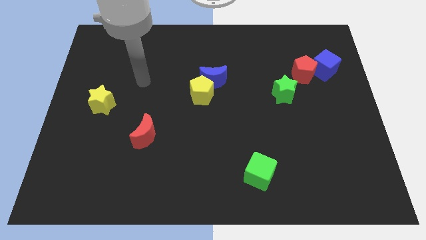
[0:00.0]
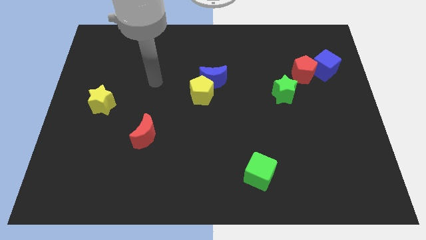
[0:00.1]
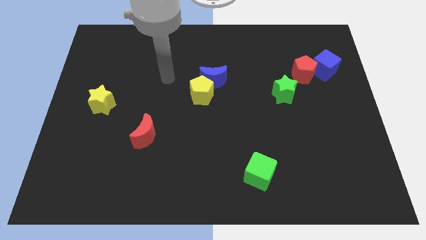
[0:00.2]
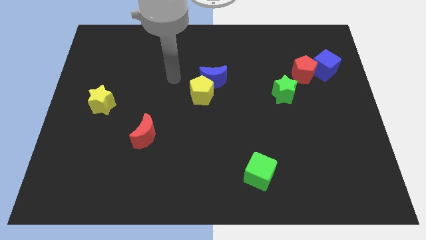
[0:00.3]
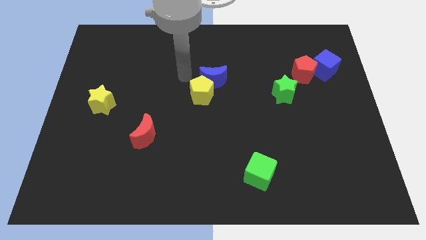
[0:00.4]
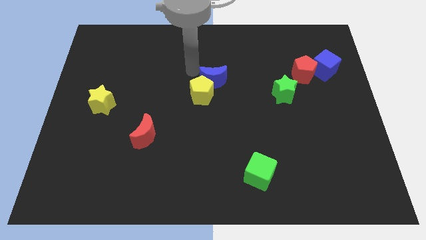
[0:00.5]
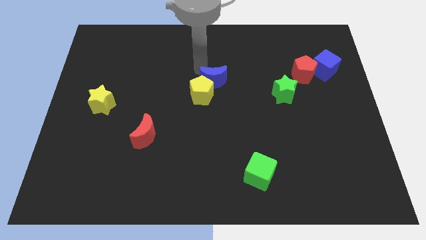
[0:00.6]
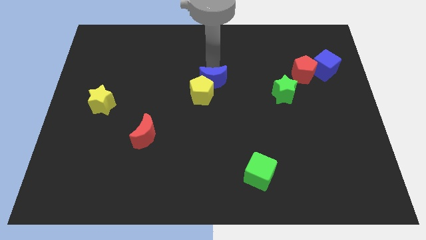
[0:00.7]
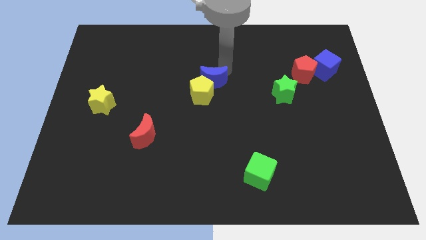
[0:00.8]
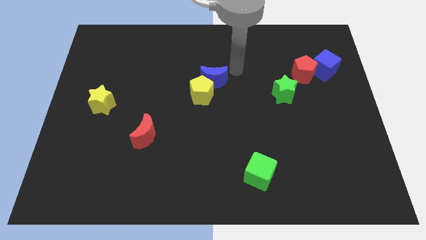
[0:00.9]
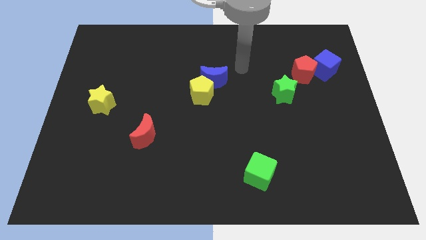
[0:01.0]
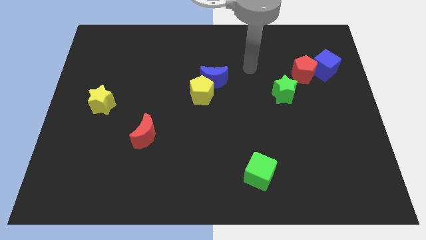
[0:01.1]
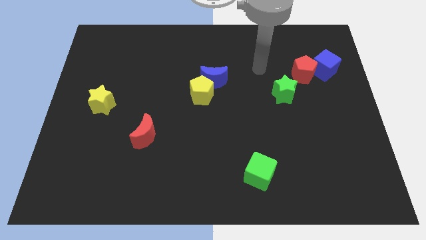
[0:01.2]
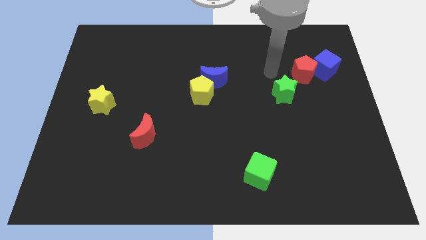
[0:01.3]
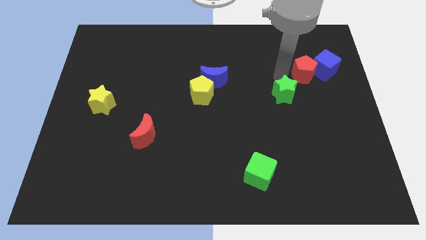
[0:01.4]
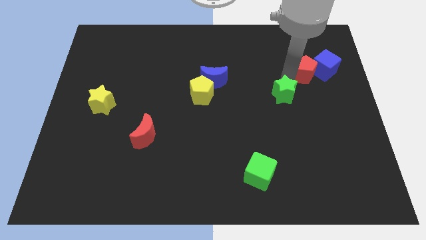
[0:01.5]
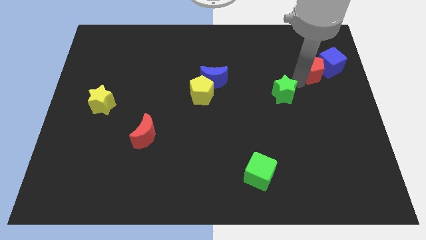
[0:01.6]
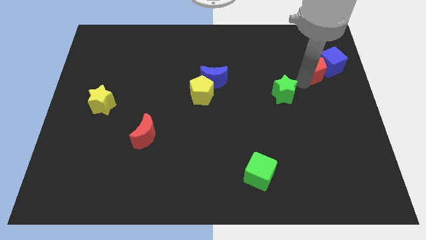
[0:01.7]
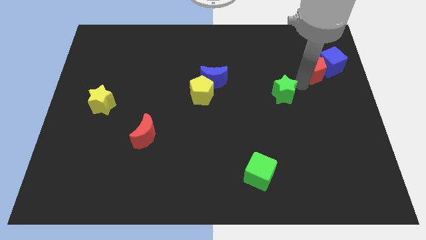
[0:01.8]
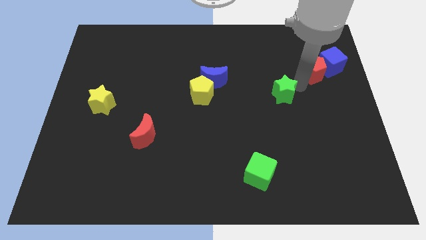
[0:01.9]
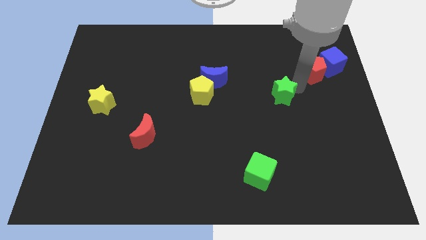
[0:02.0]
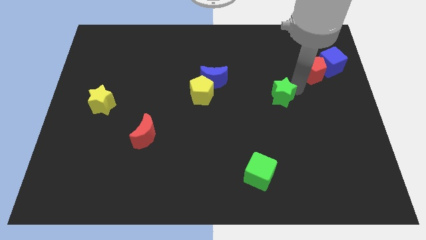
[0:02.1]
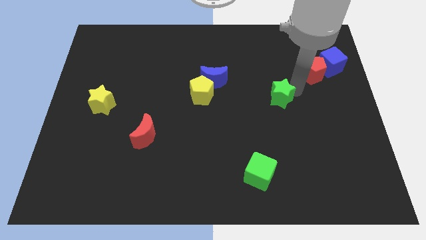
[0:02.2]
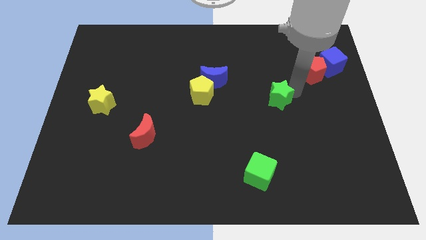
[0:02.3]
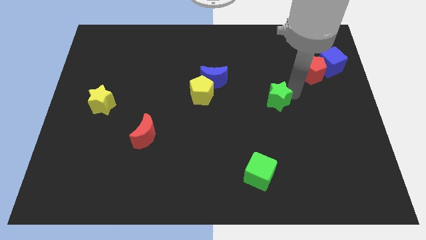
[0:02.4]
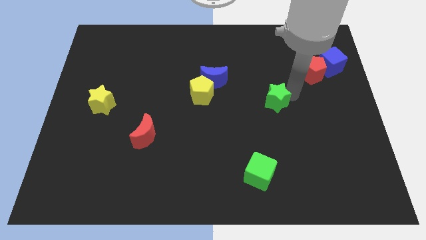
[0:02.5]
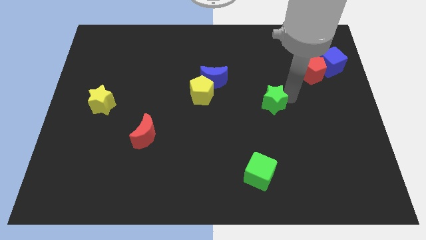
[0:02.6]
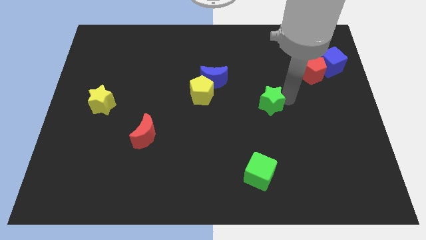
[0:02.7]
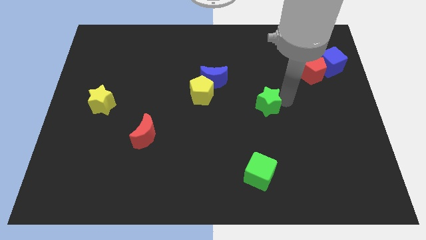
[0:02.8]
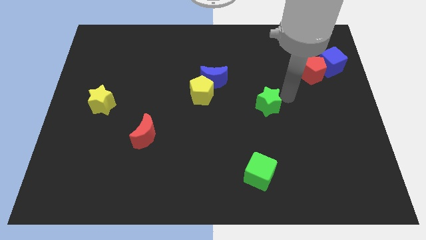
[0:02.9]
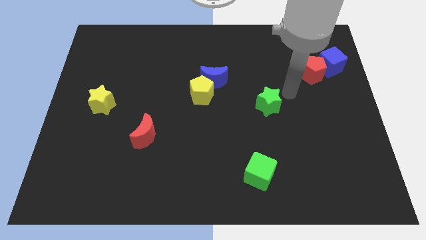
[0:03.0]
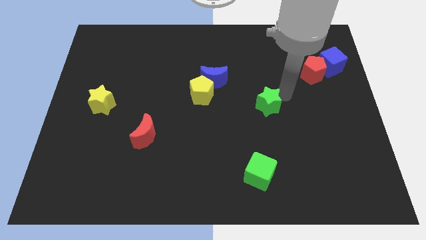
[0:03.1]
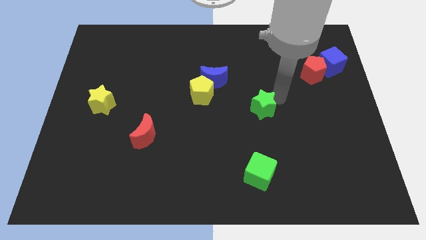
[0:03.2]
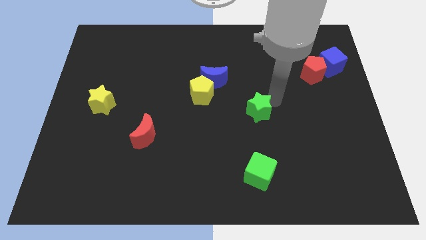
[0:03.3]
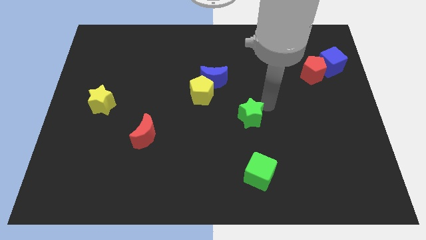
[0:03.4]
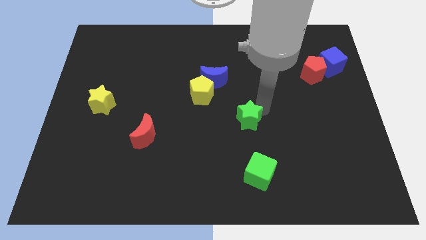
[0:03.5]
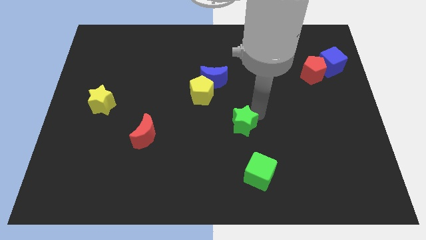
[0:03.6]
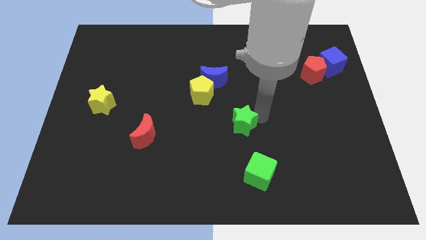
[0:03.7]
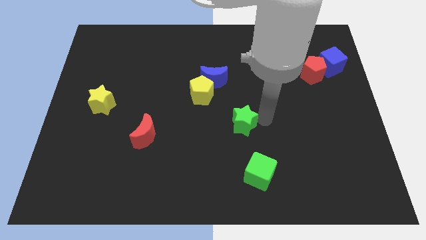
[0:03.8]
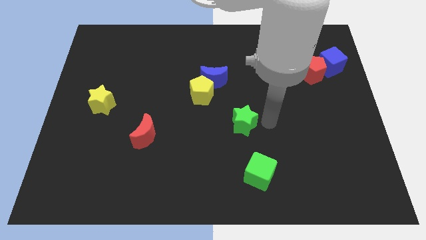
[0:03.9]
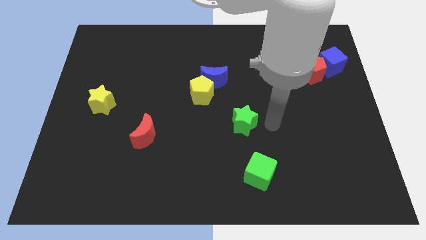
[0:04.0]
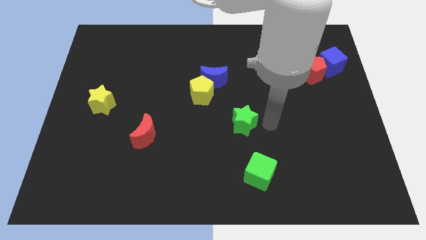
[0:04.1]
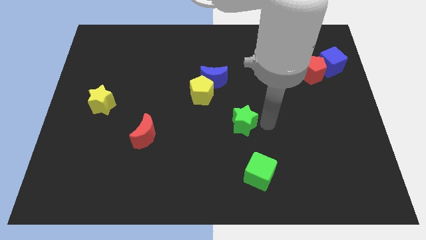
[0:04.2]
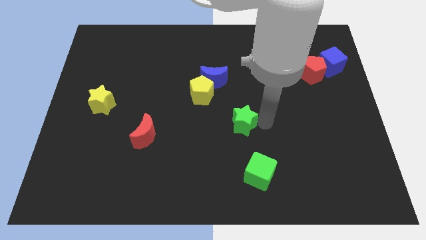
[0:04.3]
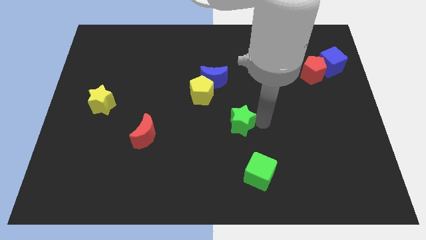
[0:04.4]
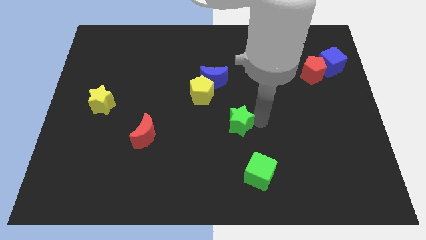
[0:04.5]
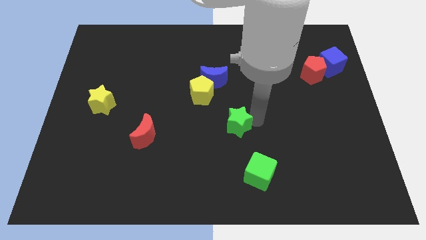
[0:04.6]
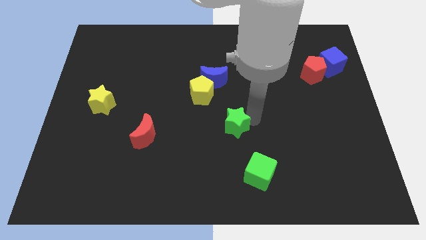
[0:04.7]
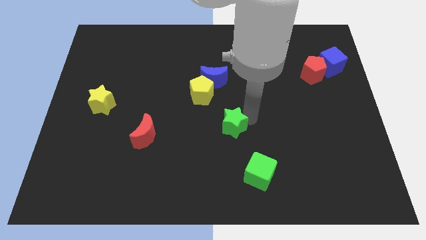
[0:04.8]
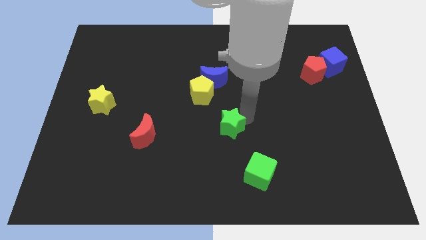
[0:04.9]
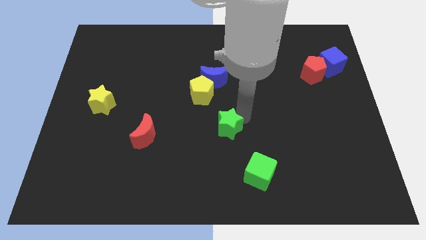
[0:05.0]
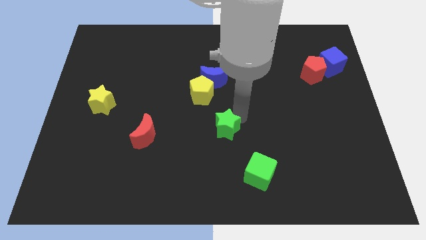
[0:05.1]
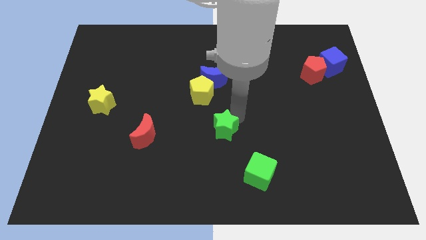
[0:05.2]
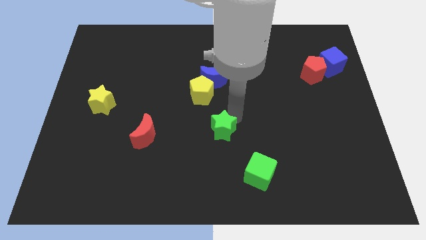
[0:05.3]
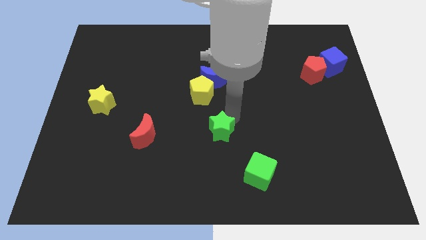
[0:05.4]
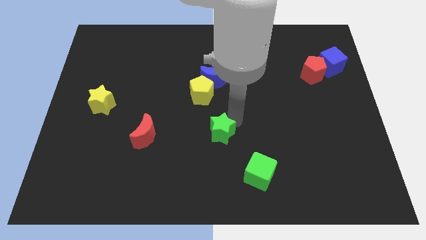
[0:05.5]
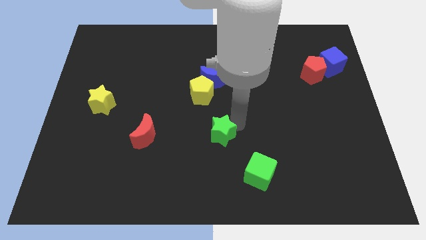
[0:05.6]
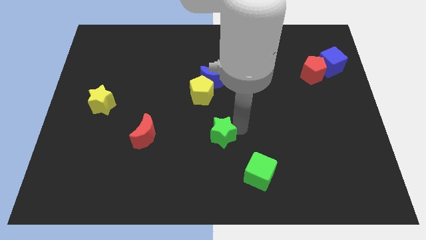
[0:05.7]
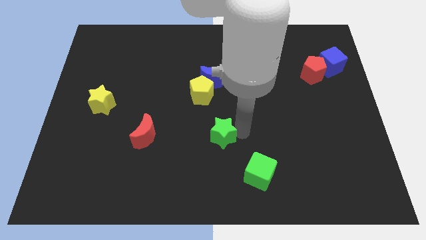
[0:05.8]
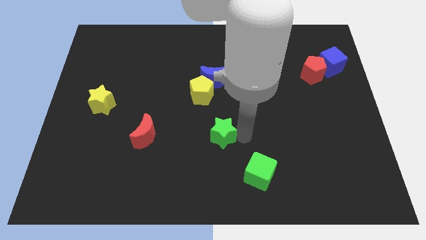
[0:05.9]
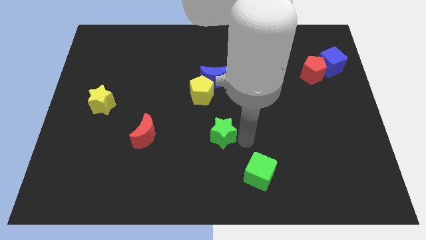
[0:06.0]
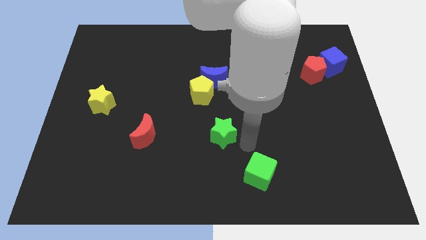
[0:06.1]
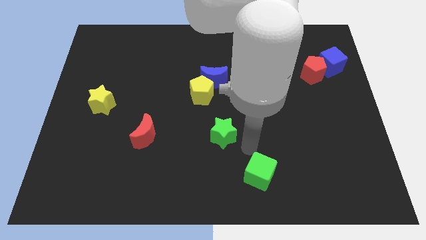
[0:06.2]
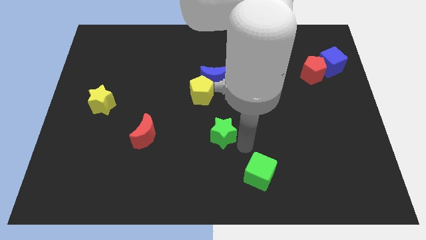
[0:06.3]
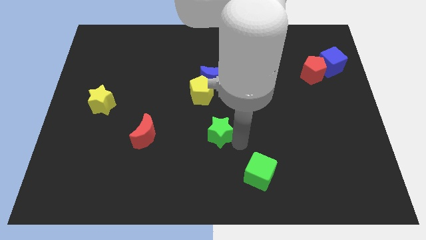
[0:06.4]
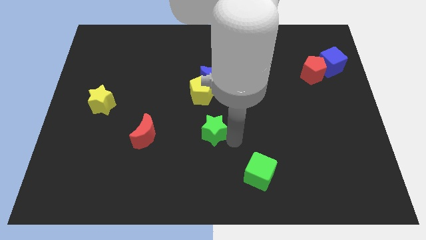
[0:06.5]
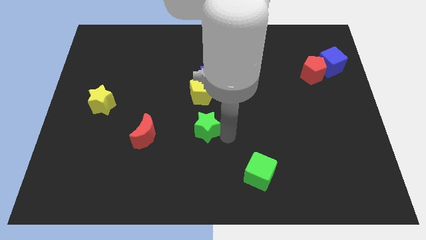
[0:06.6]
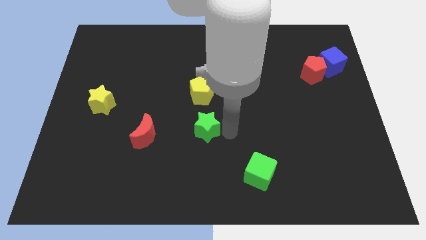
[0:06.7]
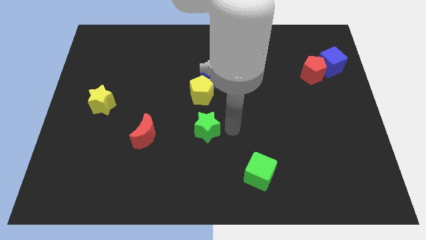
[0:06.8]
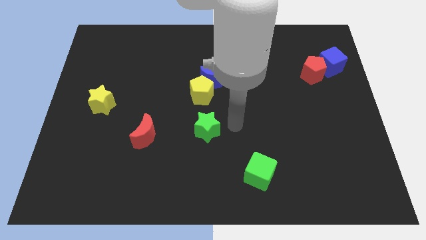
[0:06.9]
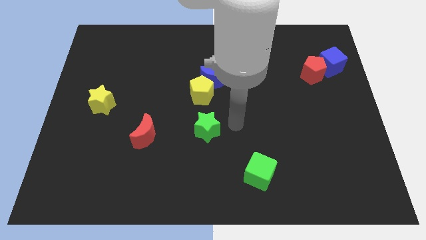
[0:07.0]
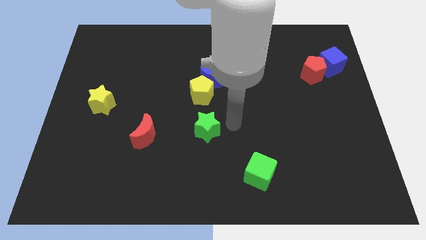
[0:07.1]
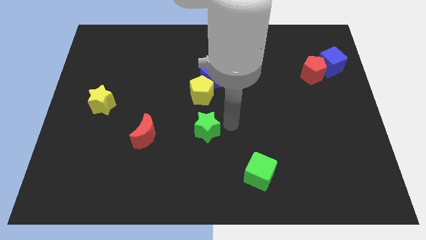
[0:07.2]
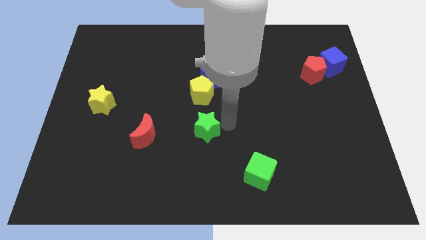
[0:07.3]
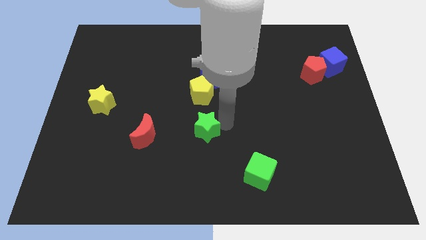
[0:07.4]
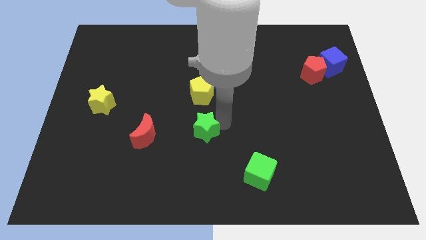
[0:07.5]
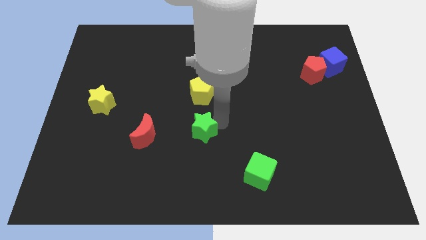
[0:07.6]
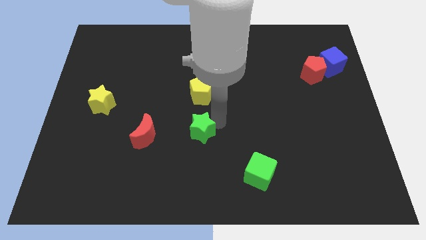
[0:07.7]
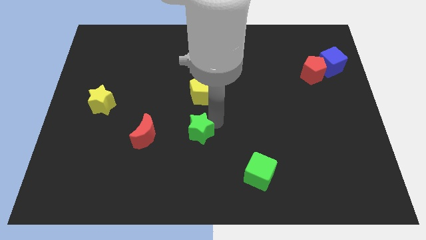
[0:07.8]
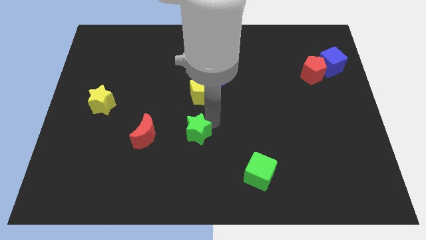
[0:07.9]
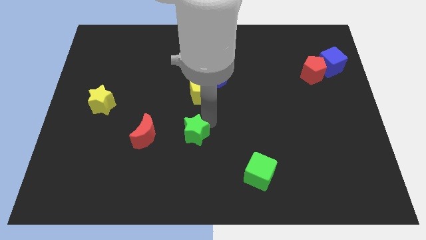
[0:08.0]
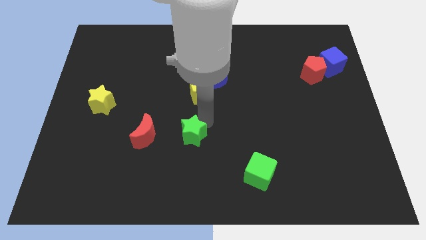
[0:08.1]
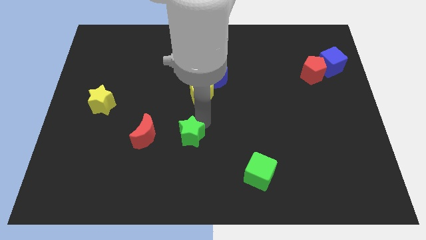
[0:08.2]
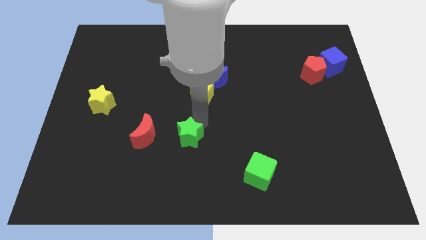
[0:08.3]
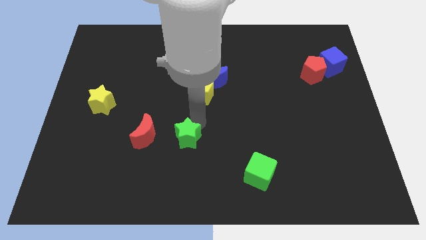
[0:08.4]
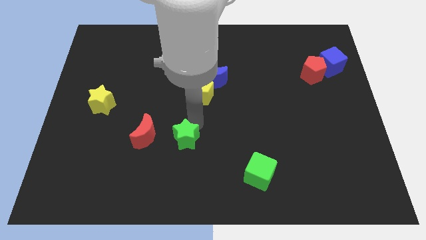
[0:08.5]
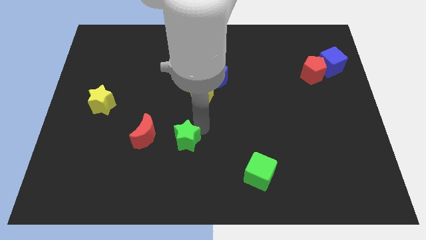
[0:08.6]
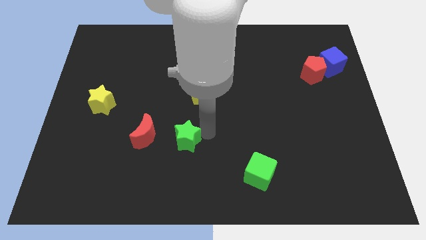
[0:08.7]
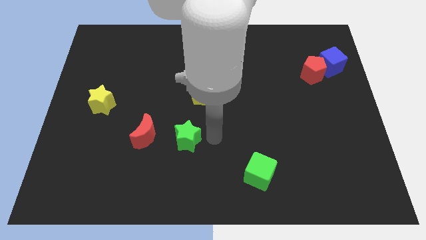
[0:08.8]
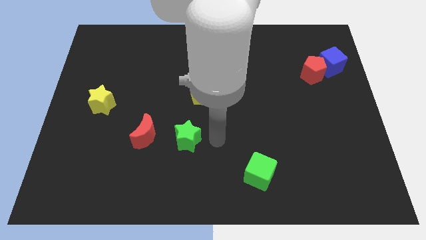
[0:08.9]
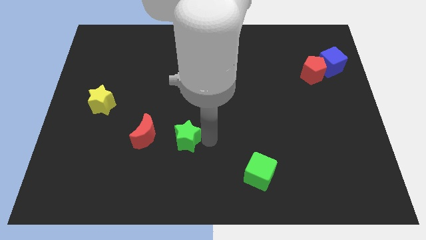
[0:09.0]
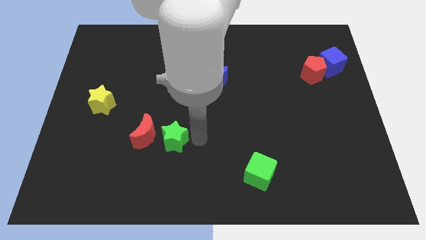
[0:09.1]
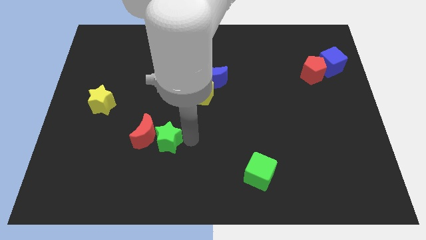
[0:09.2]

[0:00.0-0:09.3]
put the green star next to the red moon
